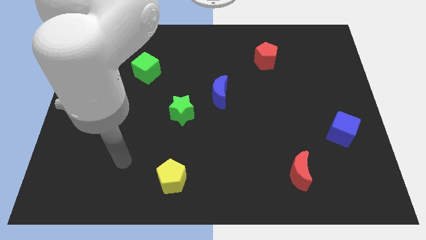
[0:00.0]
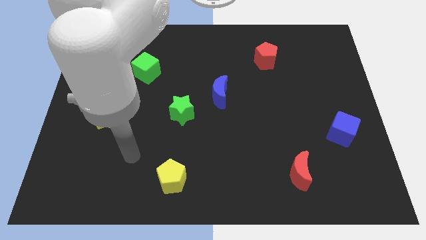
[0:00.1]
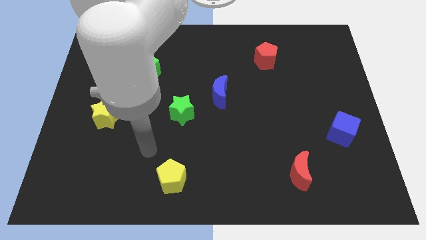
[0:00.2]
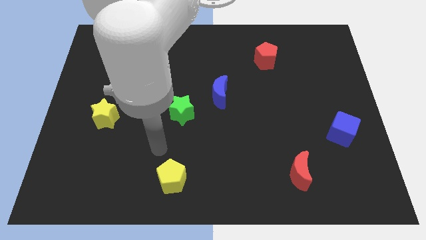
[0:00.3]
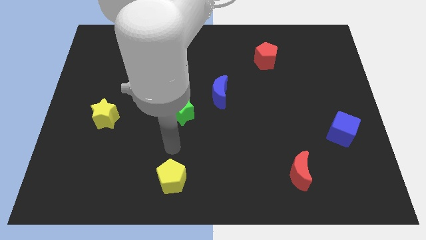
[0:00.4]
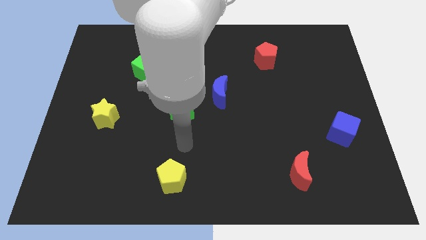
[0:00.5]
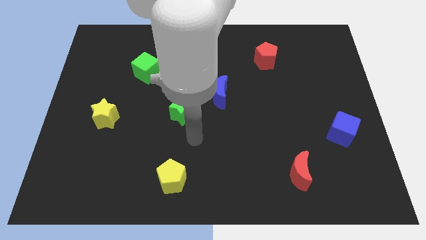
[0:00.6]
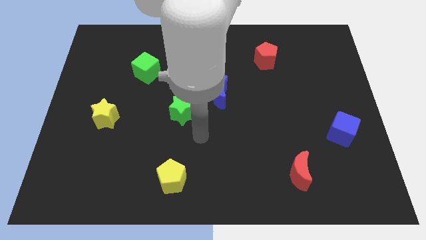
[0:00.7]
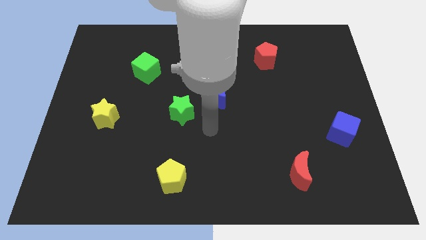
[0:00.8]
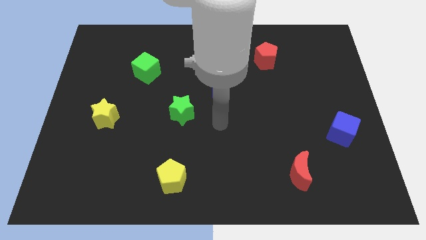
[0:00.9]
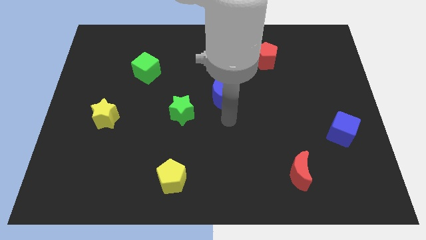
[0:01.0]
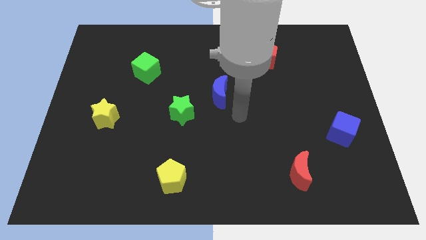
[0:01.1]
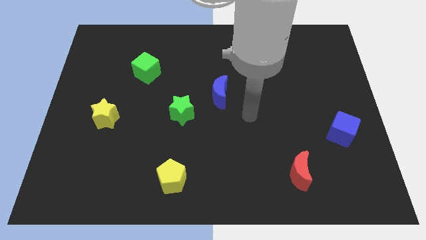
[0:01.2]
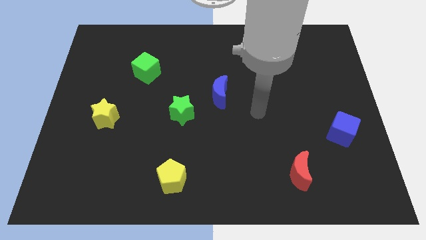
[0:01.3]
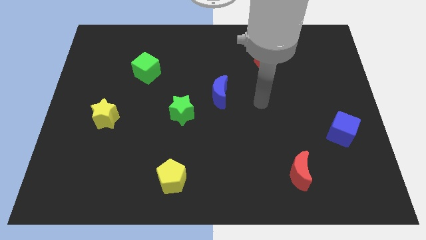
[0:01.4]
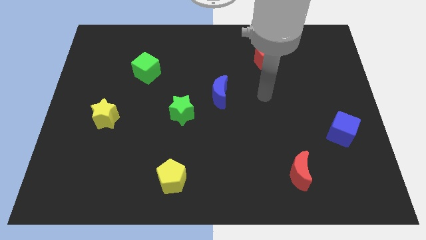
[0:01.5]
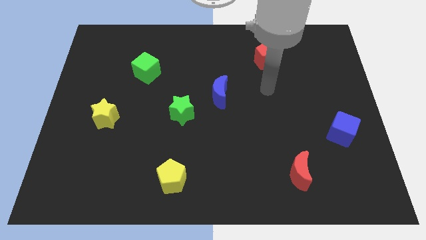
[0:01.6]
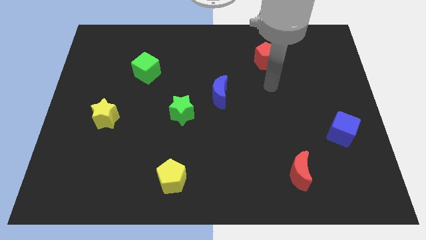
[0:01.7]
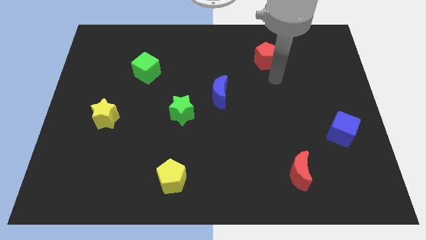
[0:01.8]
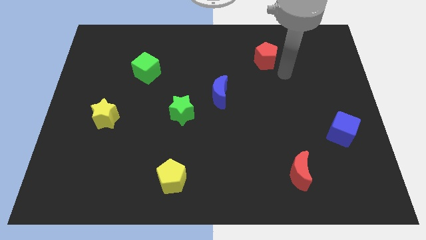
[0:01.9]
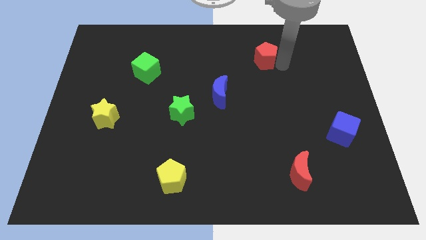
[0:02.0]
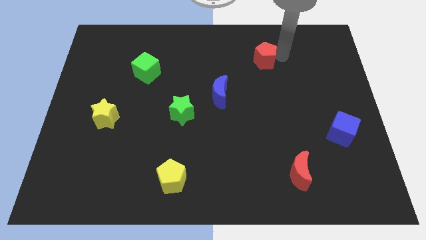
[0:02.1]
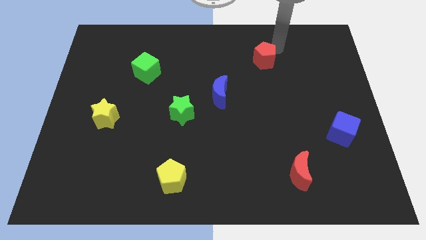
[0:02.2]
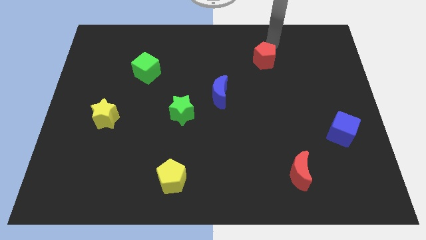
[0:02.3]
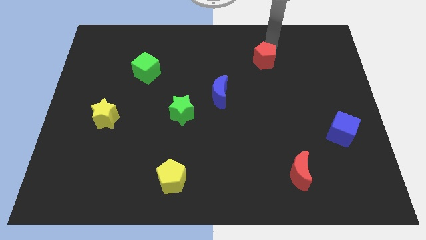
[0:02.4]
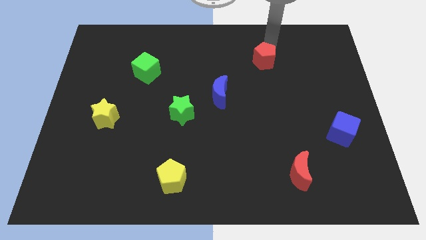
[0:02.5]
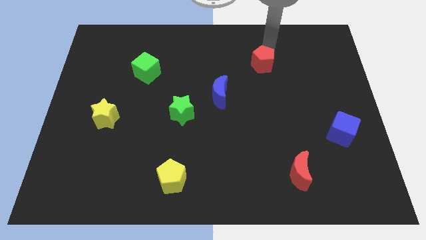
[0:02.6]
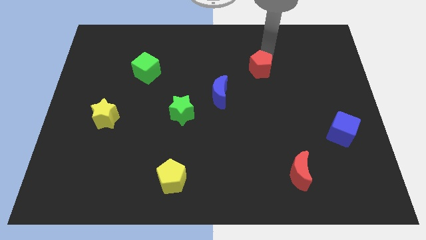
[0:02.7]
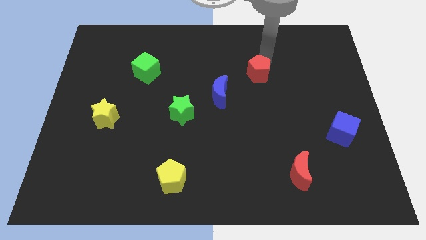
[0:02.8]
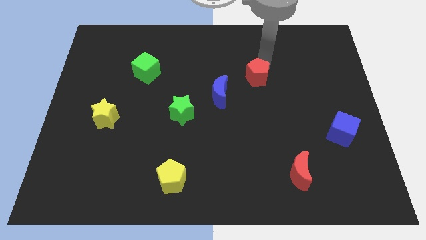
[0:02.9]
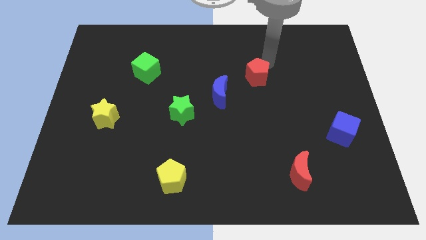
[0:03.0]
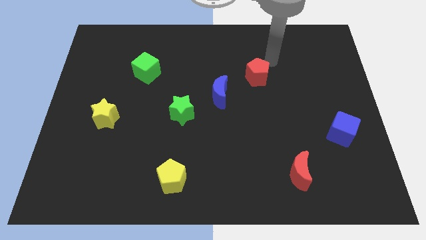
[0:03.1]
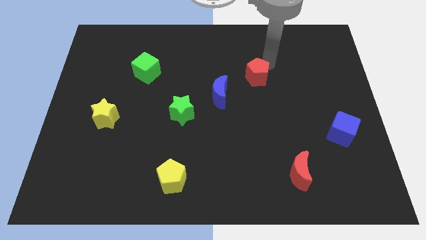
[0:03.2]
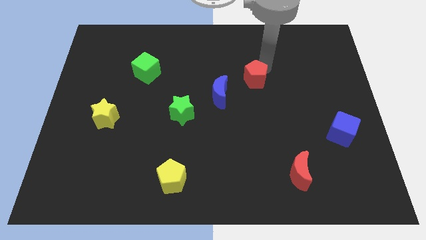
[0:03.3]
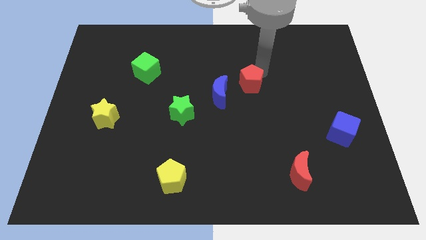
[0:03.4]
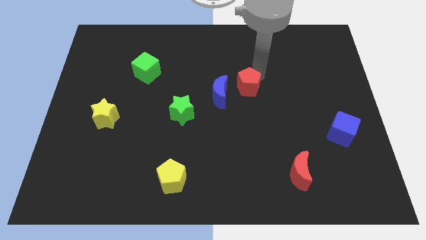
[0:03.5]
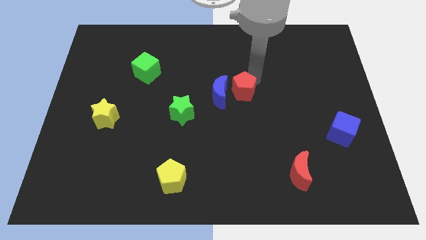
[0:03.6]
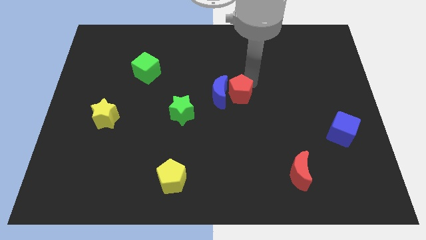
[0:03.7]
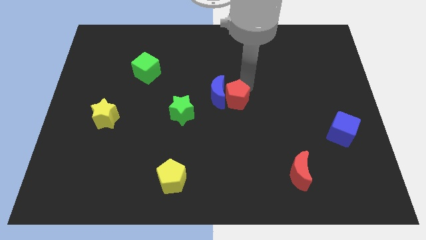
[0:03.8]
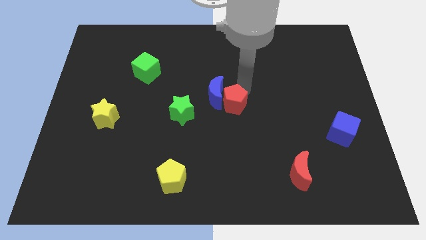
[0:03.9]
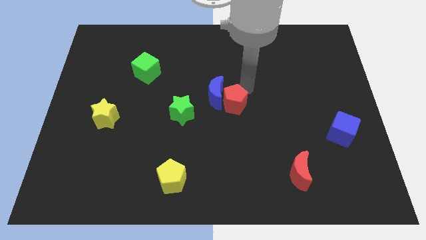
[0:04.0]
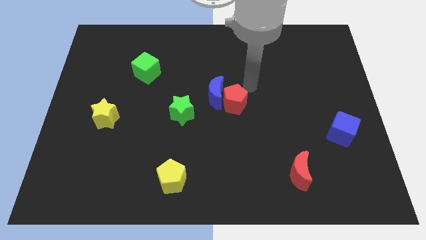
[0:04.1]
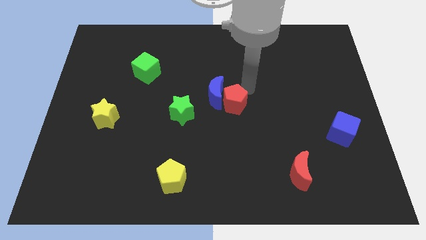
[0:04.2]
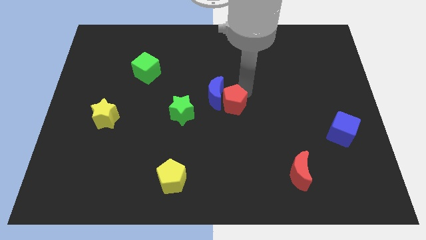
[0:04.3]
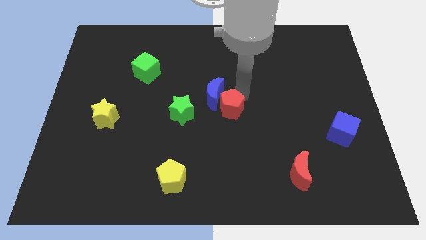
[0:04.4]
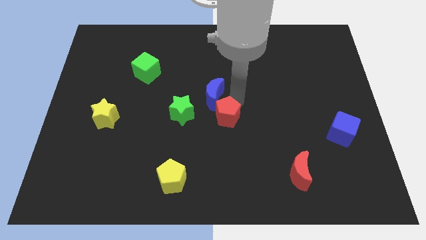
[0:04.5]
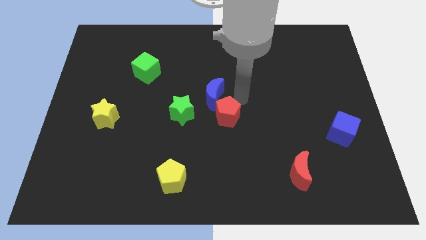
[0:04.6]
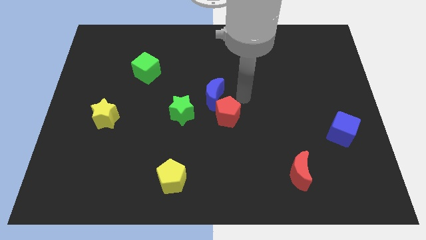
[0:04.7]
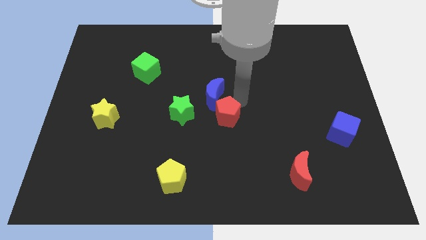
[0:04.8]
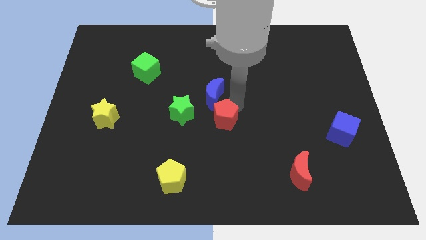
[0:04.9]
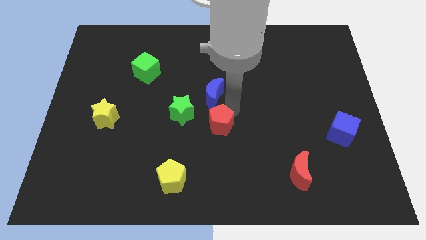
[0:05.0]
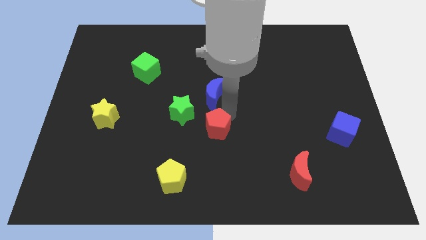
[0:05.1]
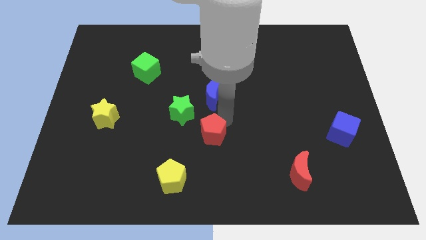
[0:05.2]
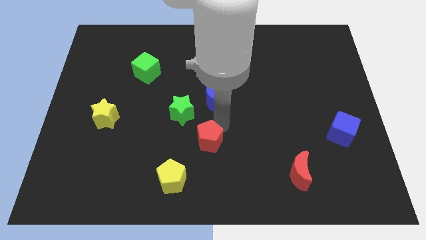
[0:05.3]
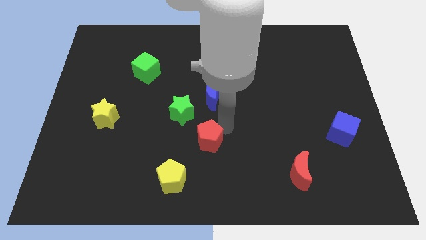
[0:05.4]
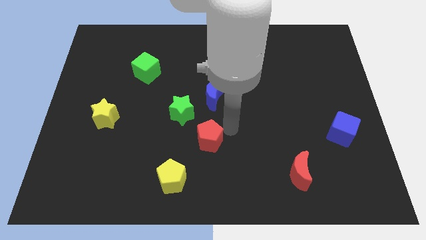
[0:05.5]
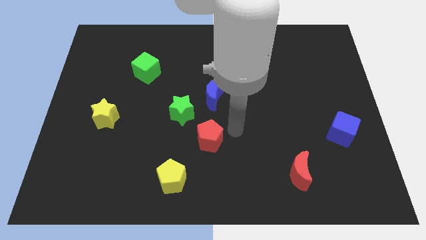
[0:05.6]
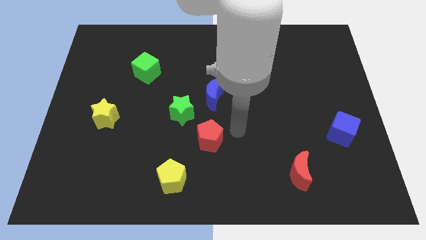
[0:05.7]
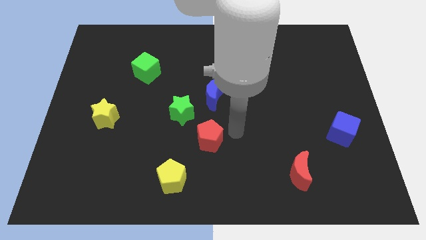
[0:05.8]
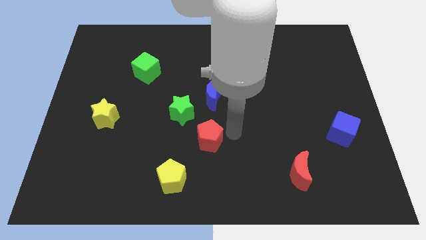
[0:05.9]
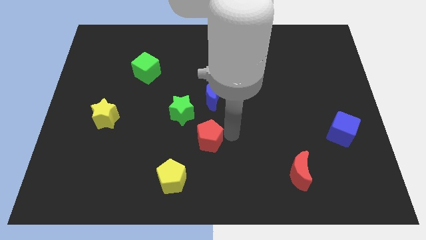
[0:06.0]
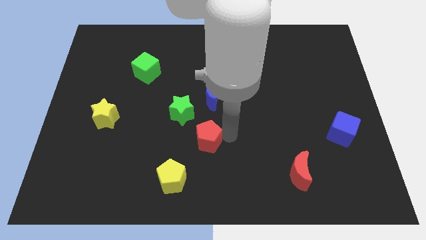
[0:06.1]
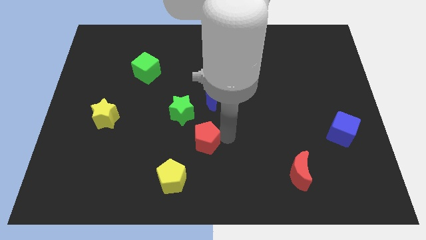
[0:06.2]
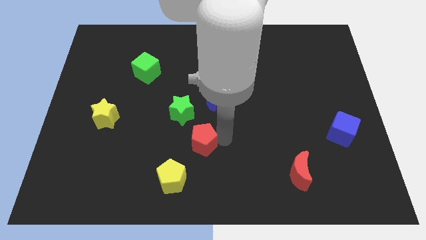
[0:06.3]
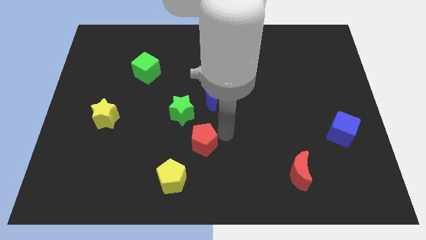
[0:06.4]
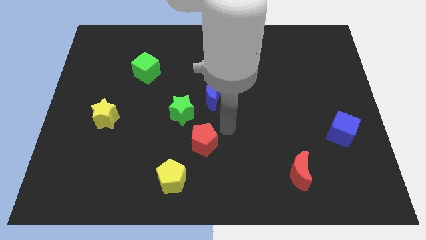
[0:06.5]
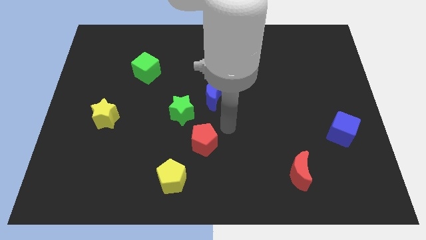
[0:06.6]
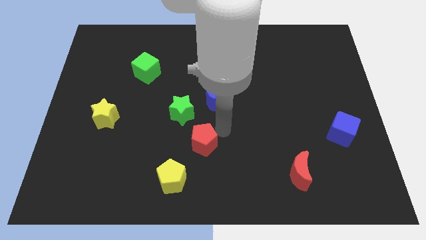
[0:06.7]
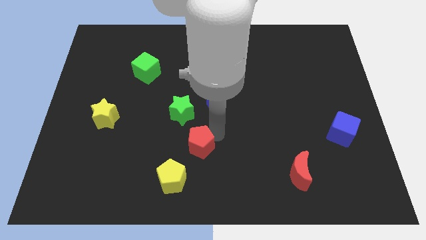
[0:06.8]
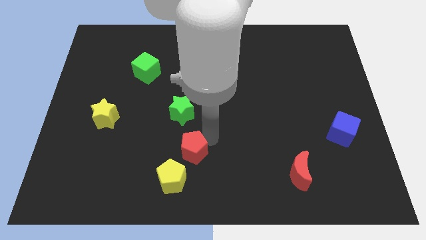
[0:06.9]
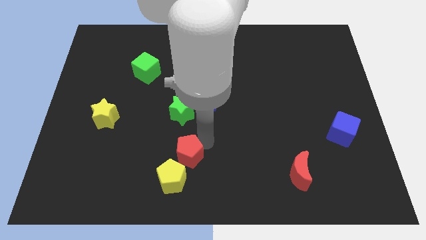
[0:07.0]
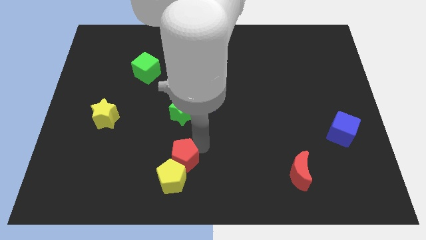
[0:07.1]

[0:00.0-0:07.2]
push the red pentagon close to the yellow pentagon
